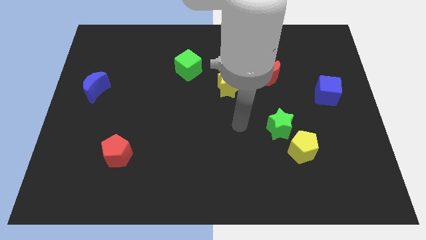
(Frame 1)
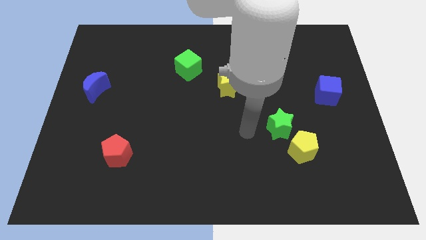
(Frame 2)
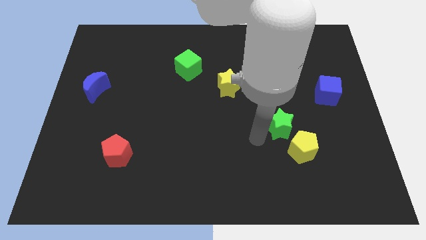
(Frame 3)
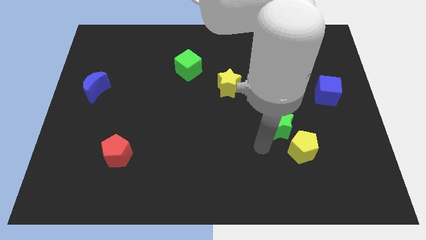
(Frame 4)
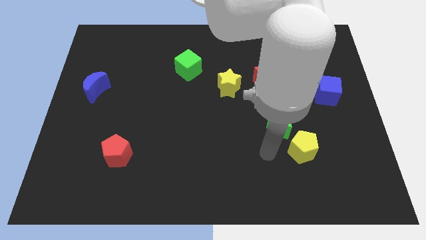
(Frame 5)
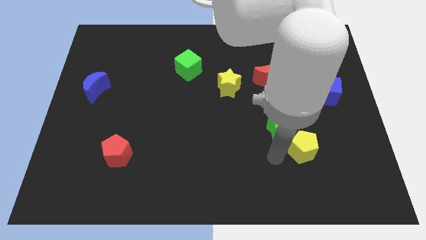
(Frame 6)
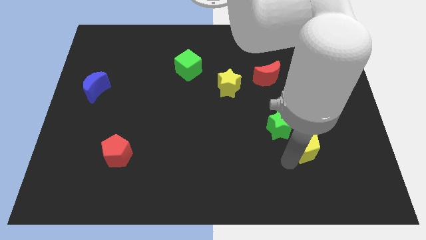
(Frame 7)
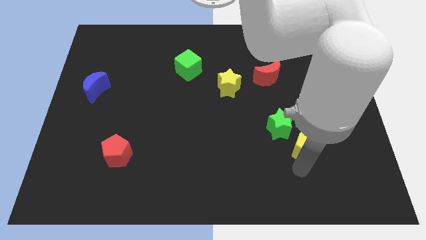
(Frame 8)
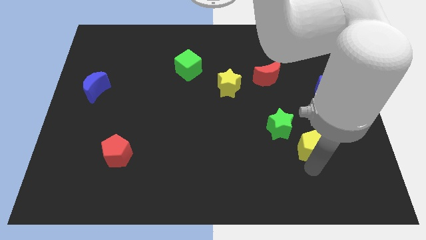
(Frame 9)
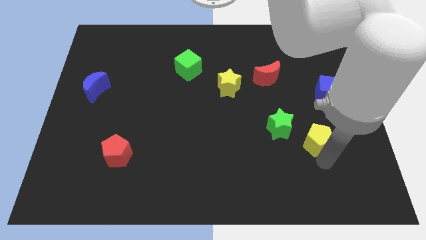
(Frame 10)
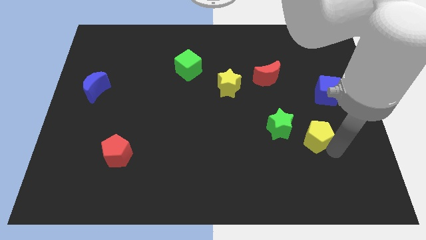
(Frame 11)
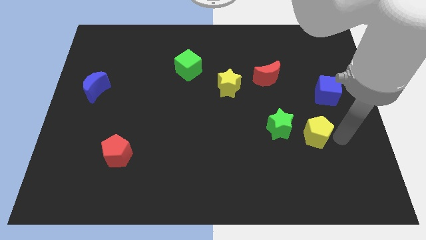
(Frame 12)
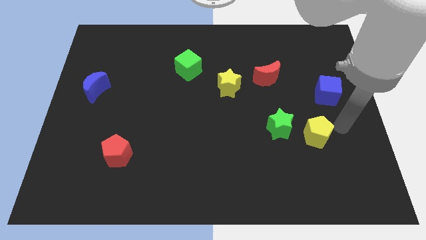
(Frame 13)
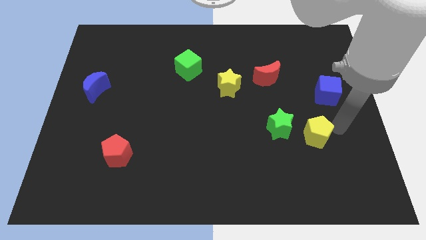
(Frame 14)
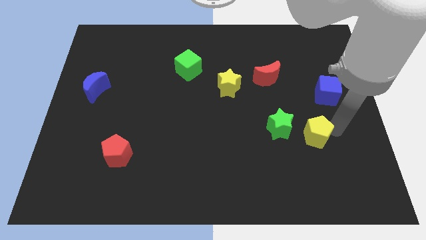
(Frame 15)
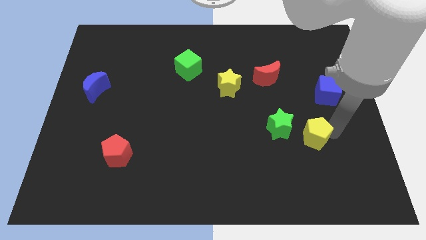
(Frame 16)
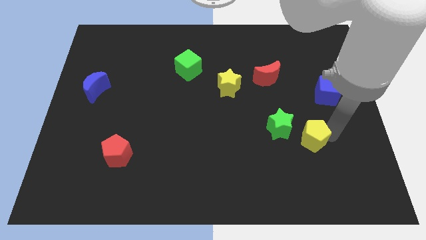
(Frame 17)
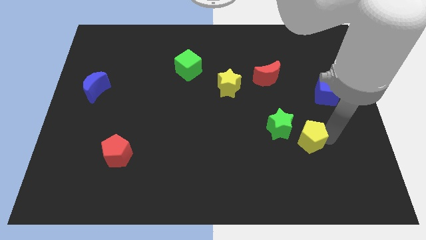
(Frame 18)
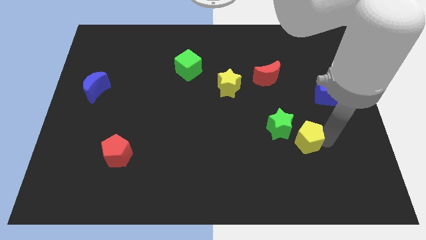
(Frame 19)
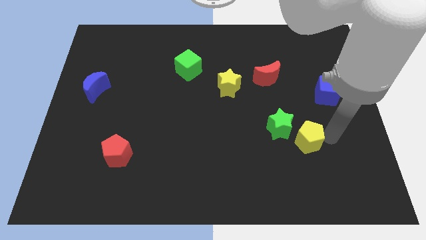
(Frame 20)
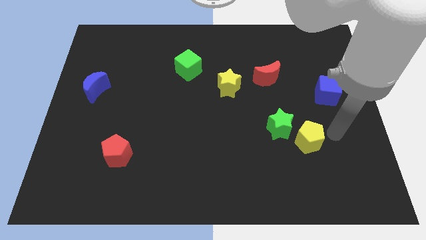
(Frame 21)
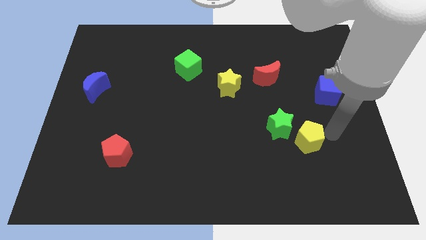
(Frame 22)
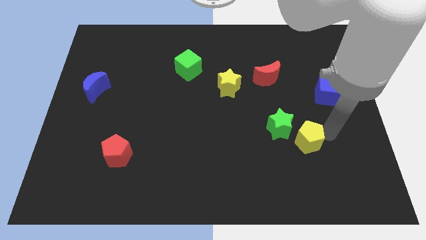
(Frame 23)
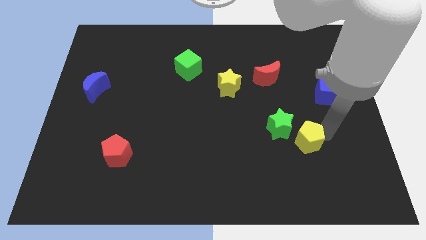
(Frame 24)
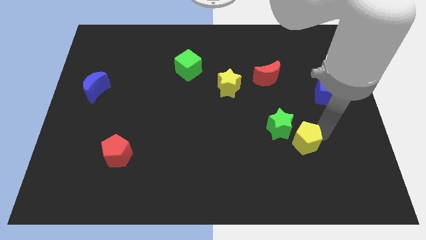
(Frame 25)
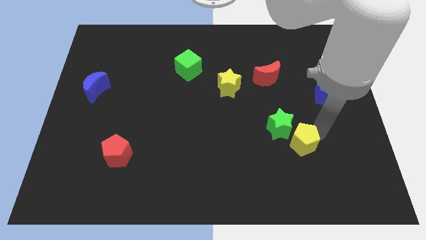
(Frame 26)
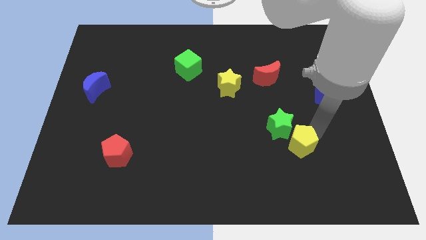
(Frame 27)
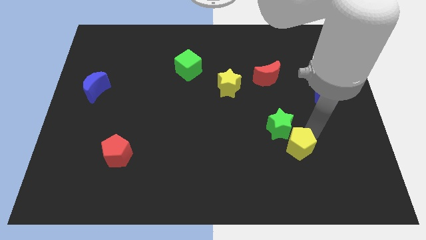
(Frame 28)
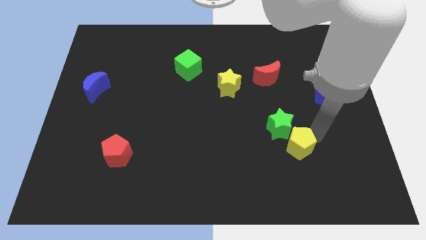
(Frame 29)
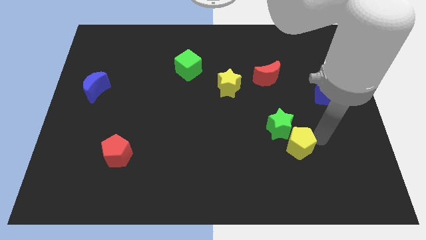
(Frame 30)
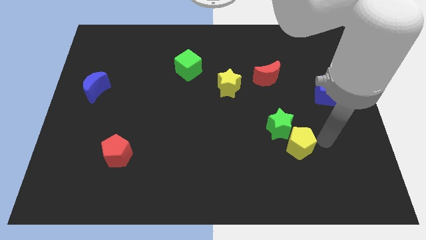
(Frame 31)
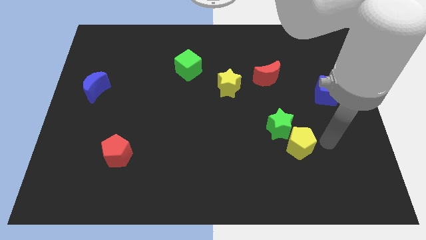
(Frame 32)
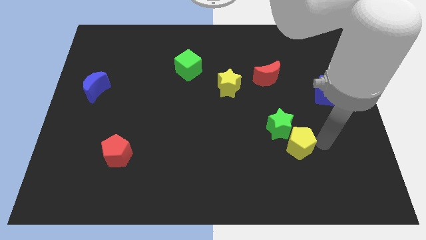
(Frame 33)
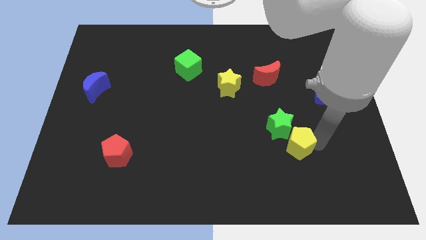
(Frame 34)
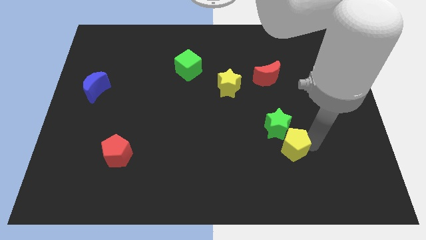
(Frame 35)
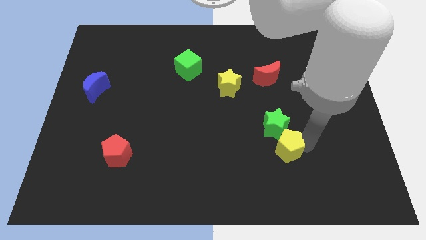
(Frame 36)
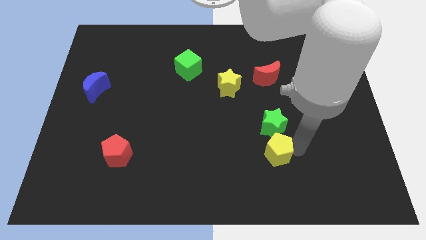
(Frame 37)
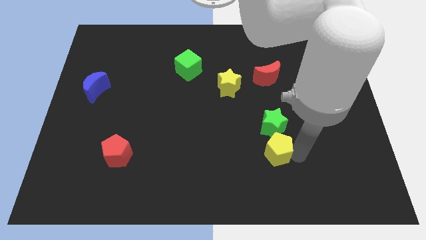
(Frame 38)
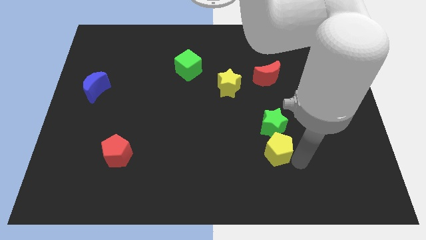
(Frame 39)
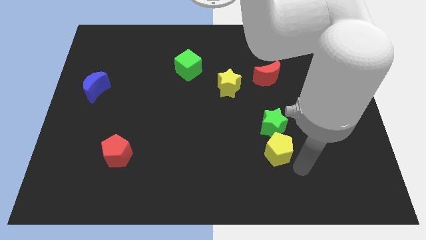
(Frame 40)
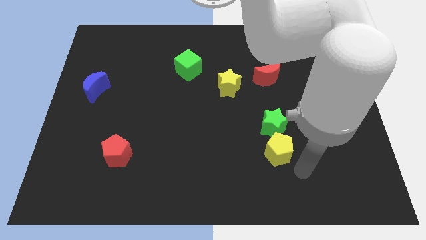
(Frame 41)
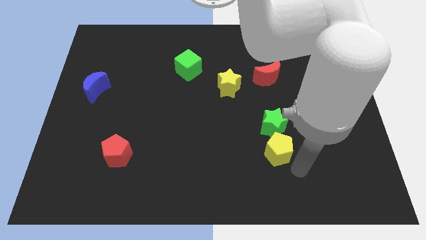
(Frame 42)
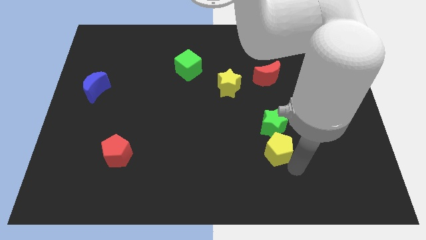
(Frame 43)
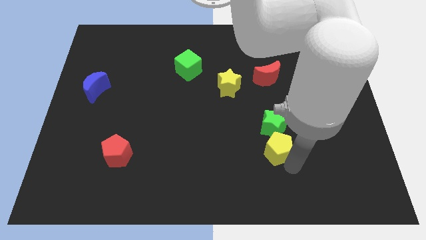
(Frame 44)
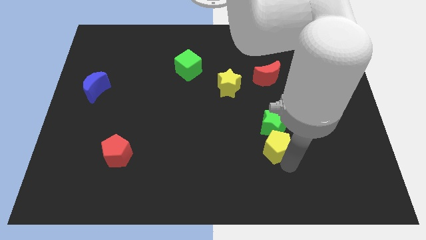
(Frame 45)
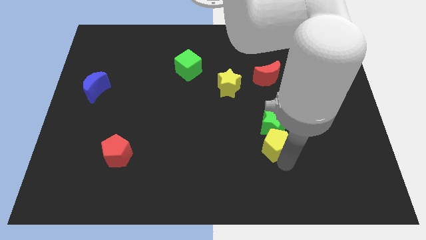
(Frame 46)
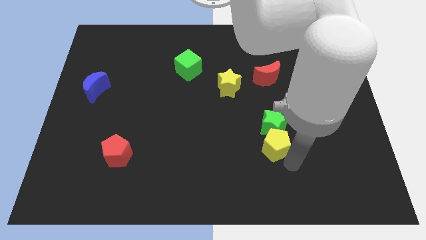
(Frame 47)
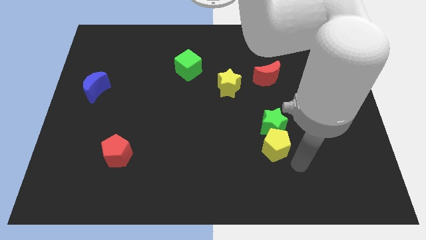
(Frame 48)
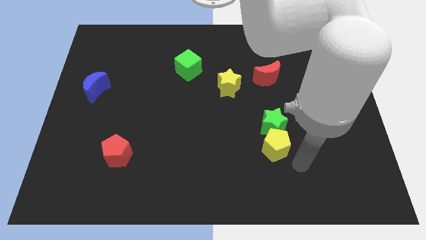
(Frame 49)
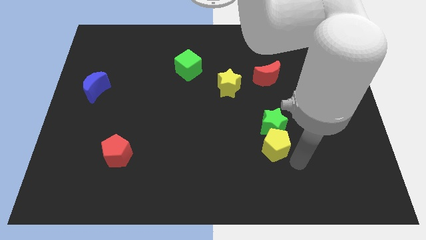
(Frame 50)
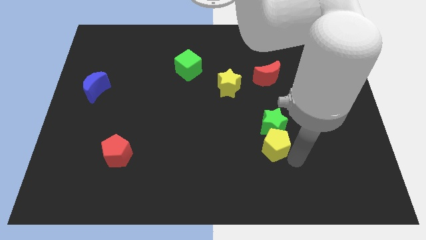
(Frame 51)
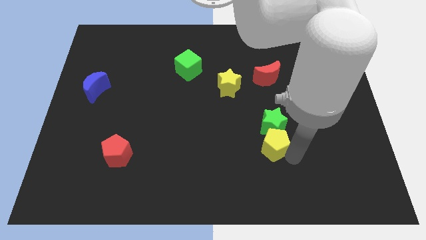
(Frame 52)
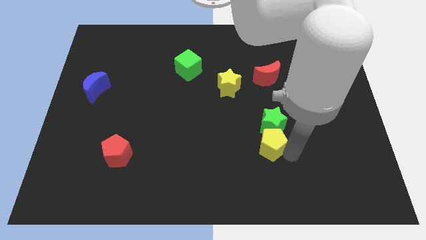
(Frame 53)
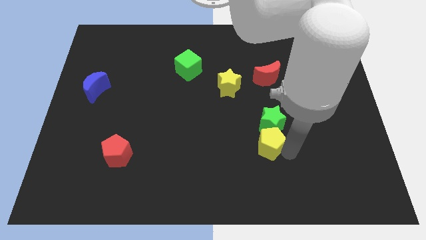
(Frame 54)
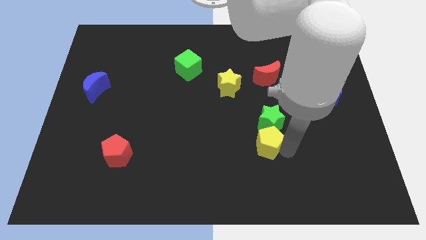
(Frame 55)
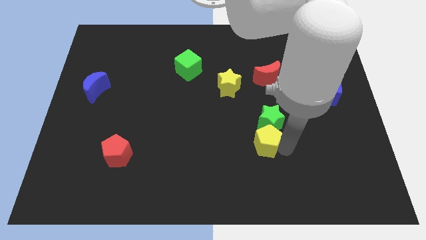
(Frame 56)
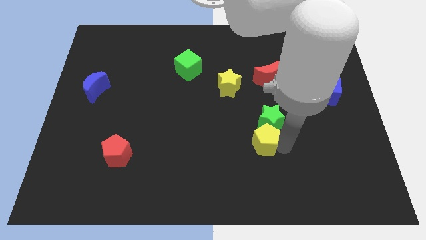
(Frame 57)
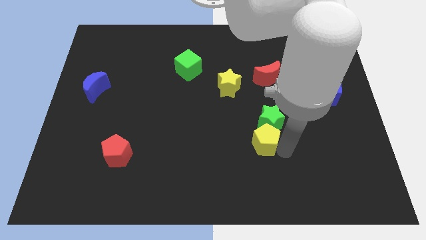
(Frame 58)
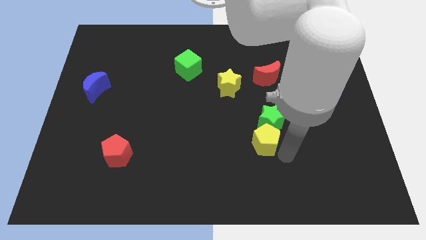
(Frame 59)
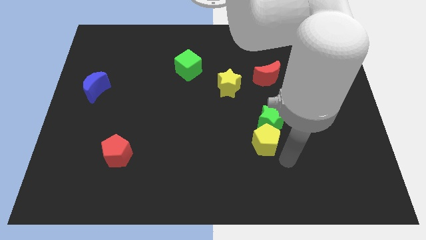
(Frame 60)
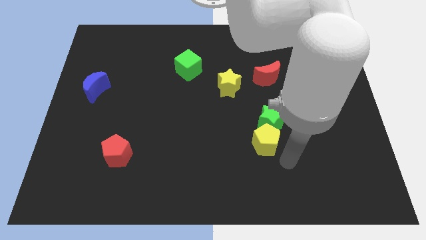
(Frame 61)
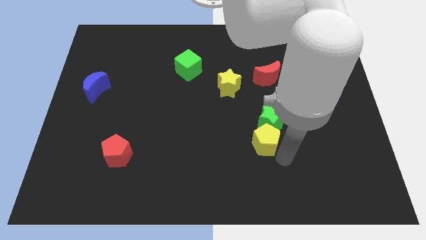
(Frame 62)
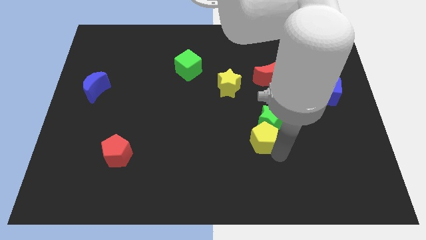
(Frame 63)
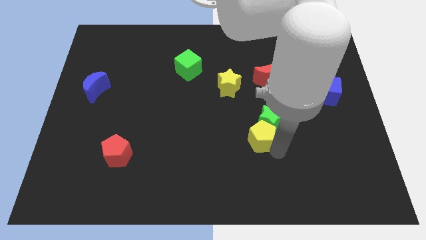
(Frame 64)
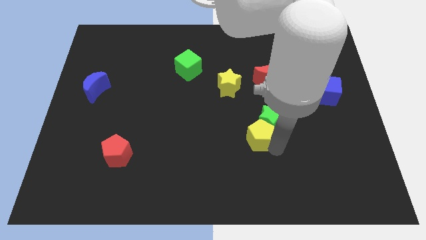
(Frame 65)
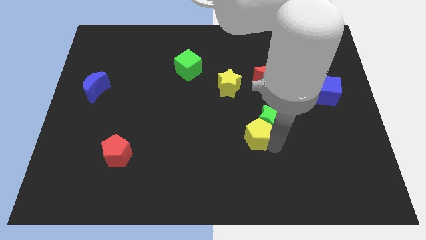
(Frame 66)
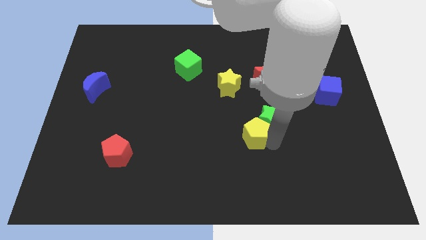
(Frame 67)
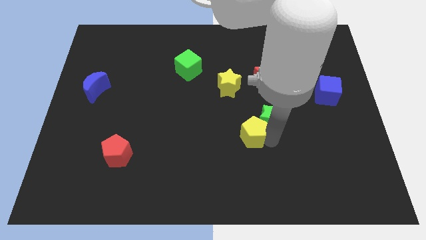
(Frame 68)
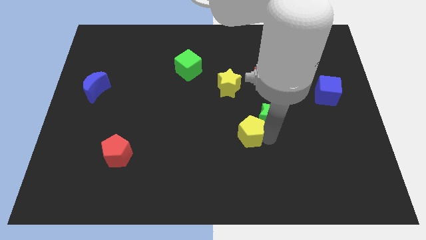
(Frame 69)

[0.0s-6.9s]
slide the yellow pentagon to the center
